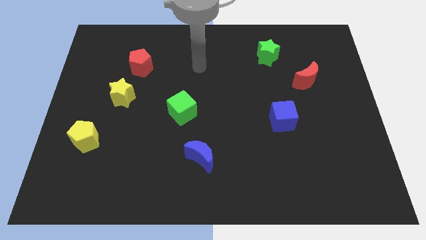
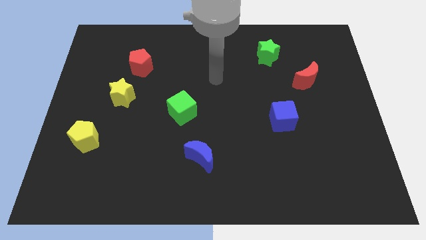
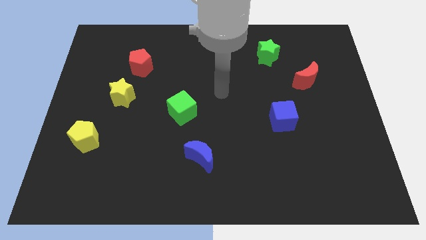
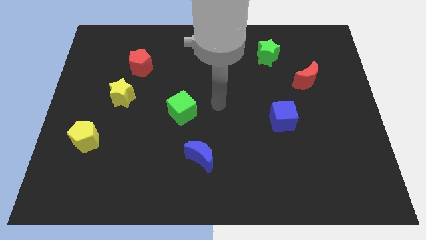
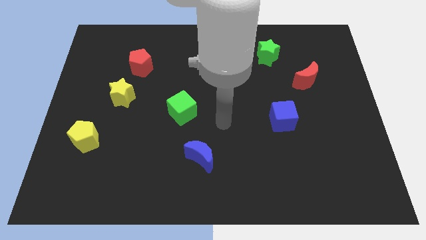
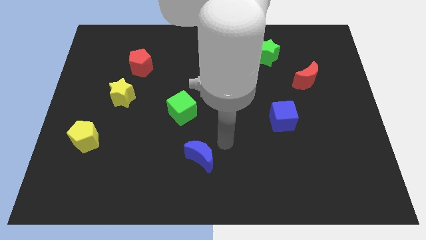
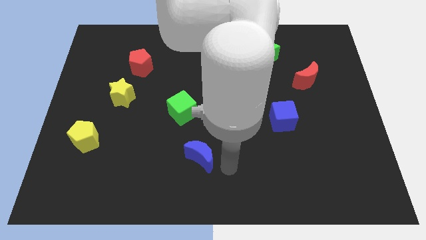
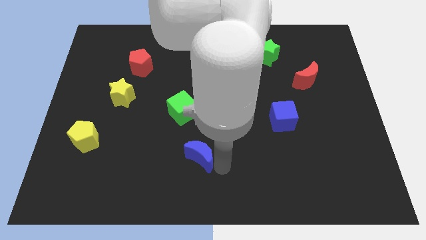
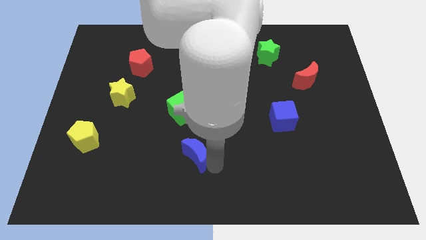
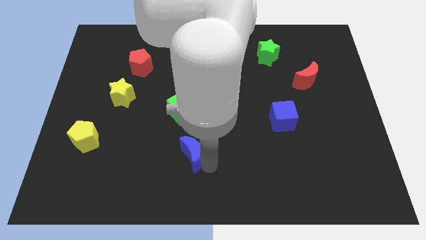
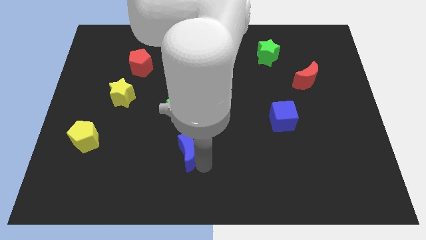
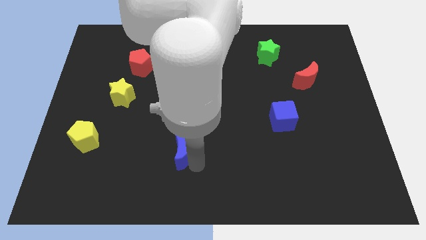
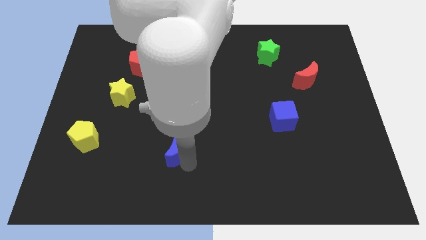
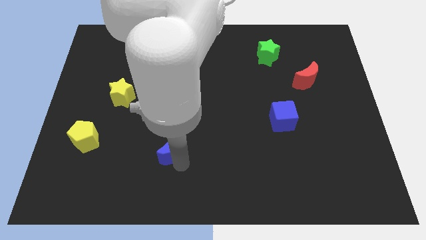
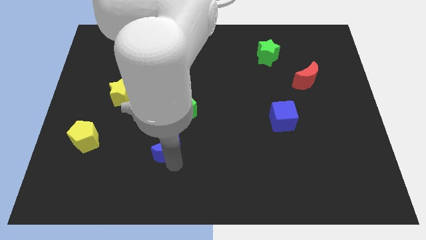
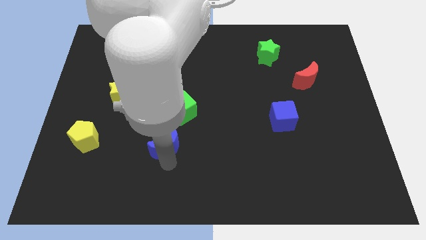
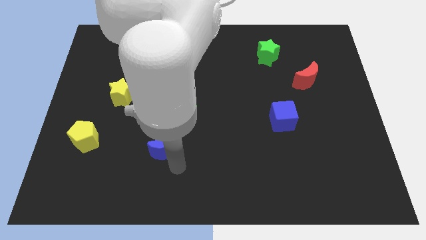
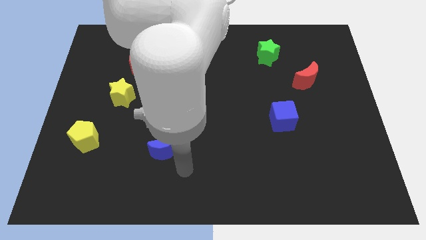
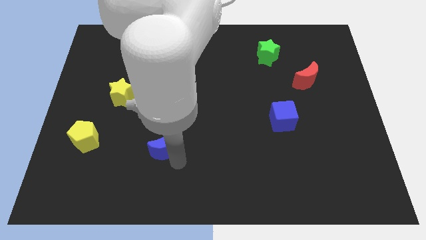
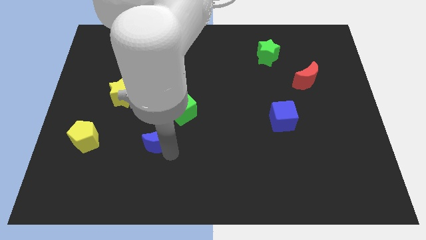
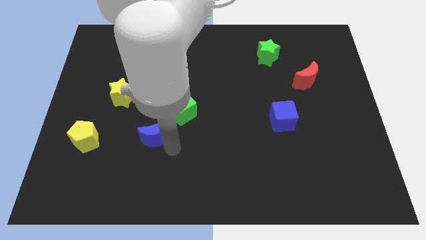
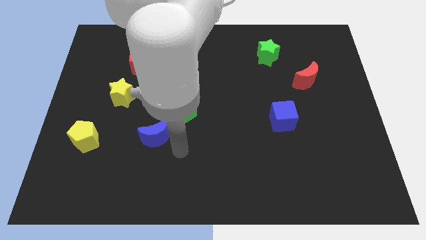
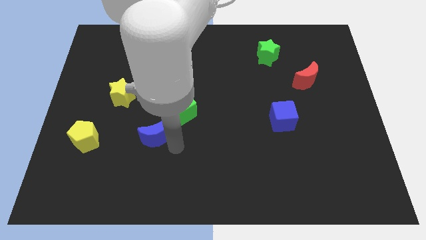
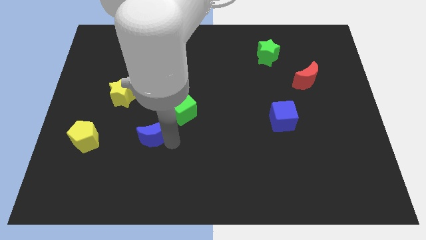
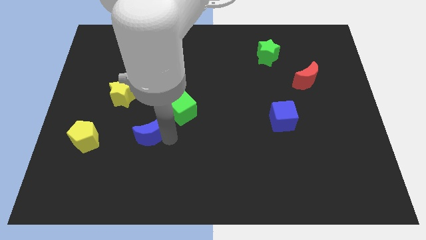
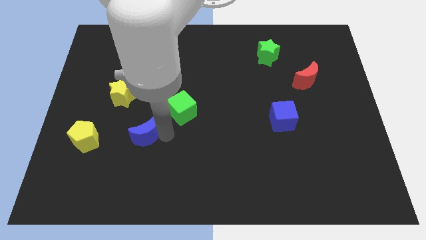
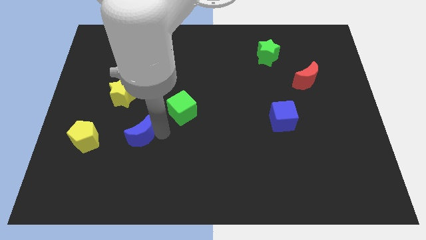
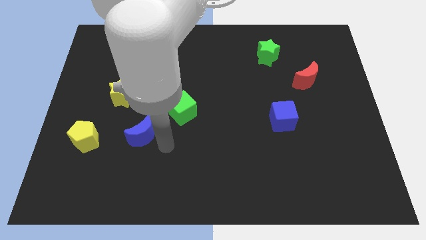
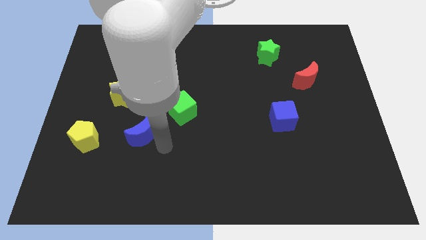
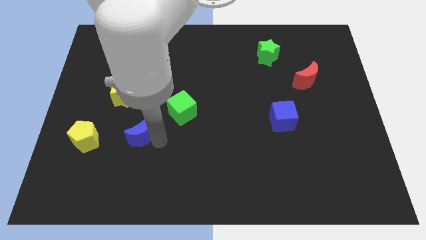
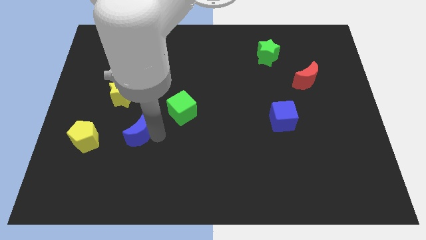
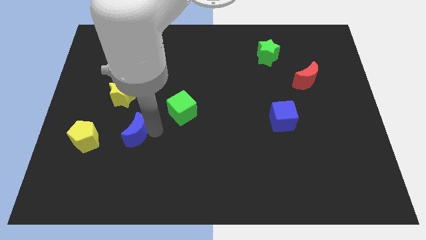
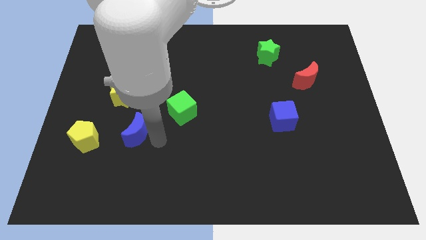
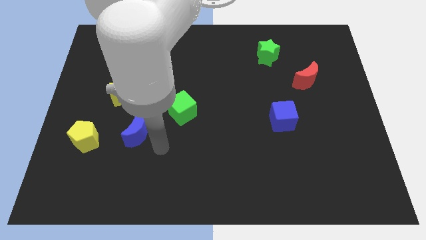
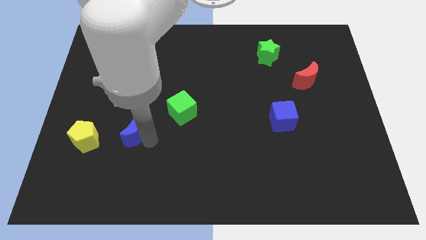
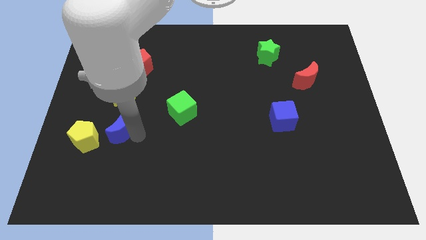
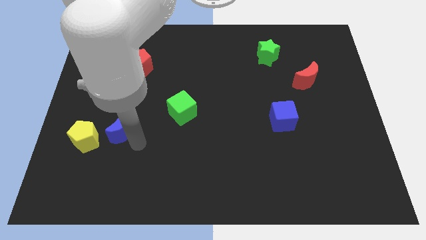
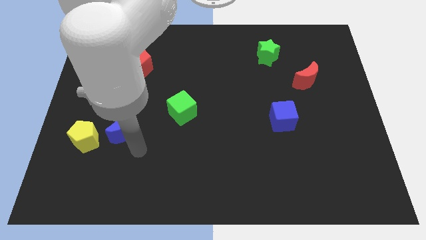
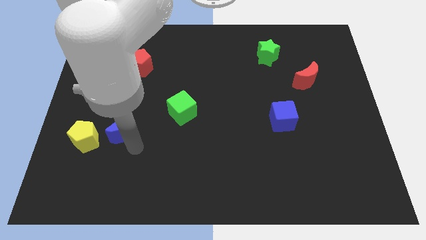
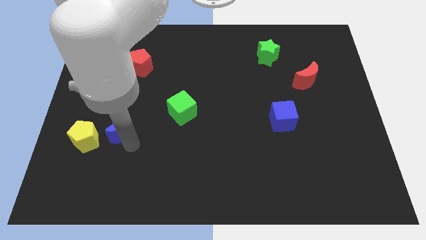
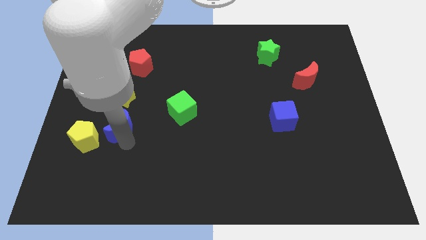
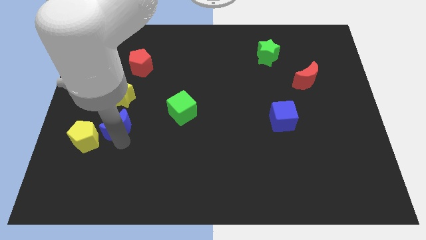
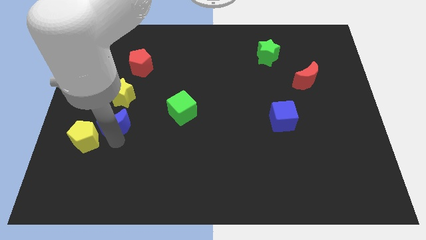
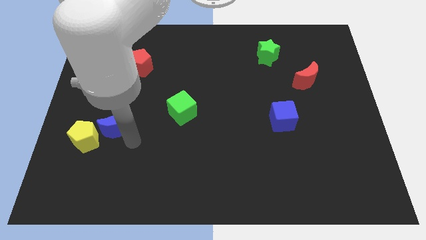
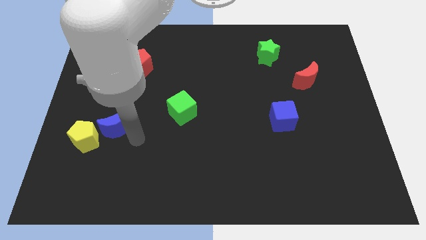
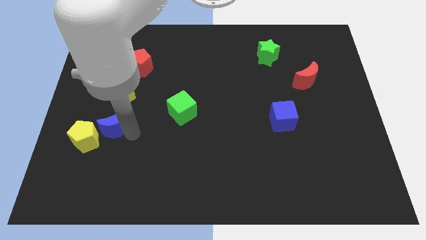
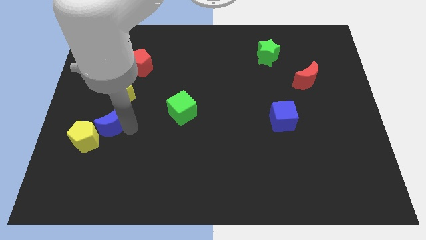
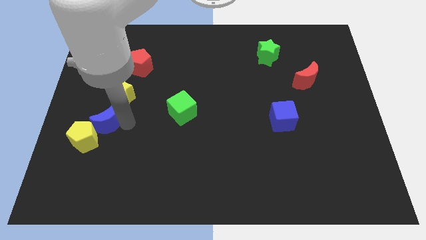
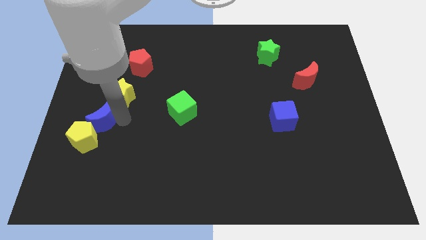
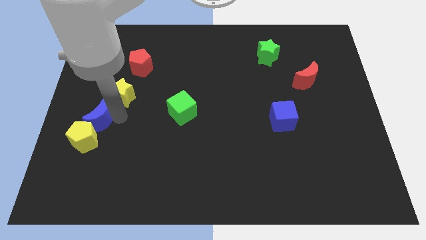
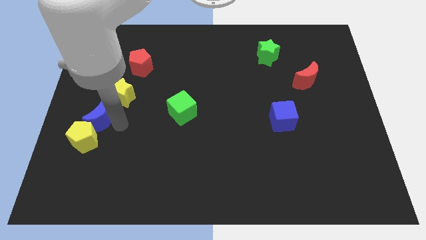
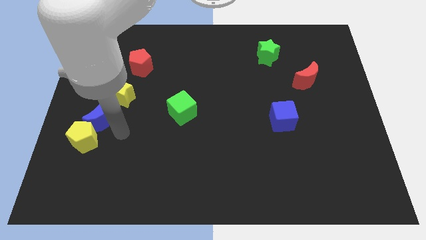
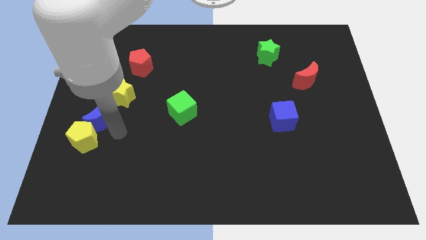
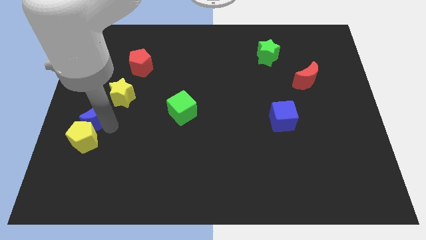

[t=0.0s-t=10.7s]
put the blue moon to the left side of the board

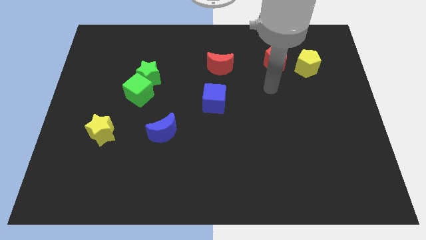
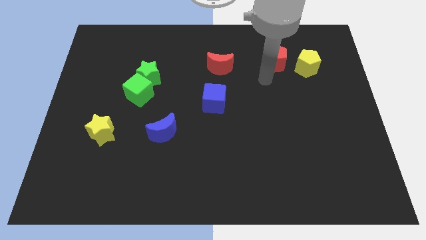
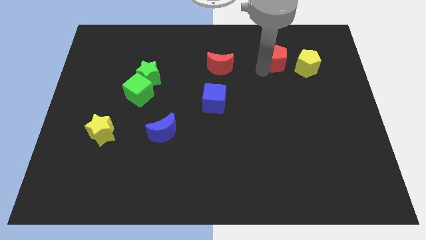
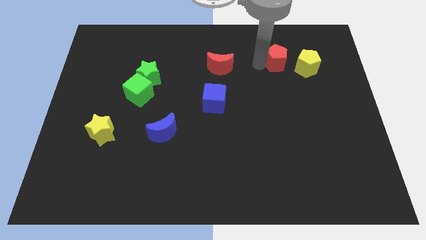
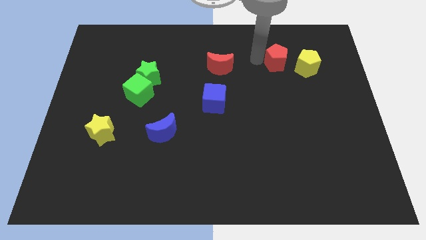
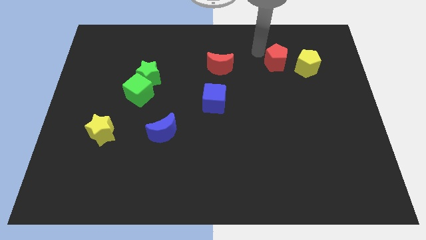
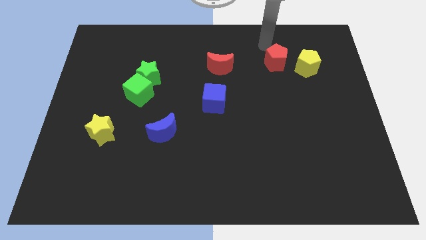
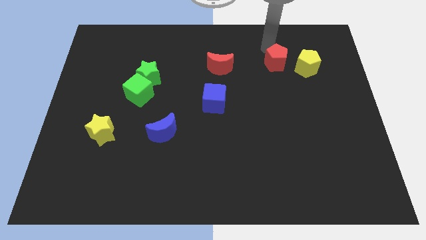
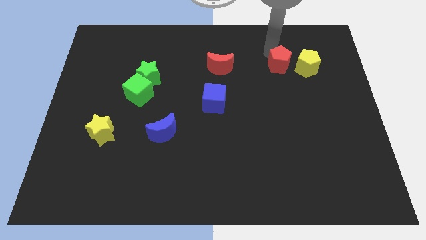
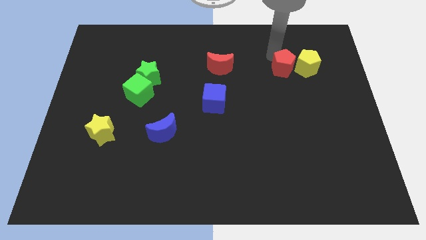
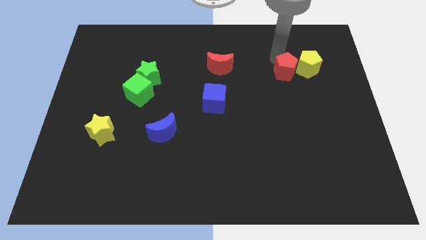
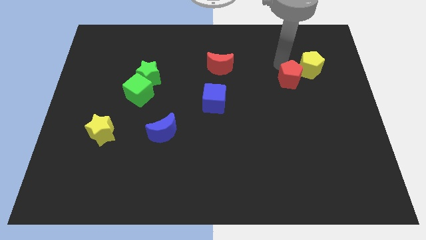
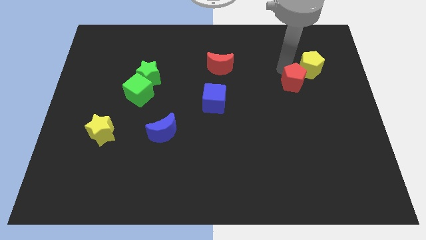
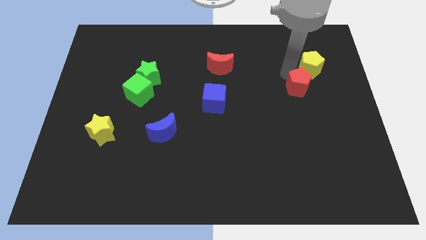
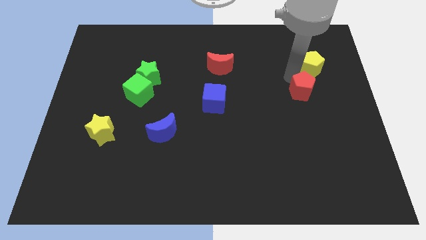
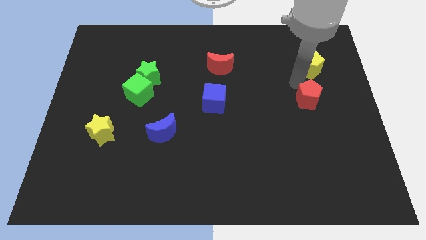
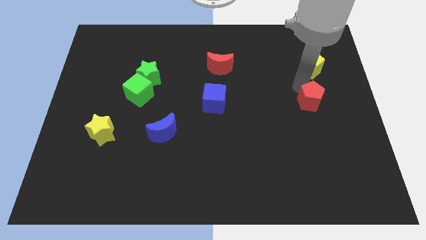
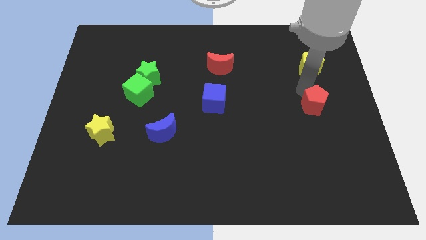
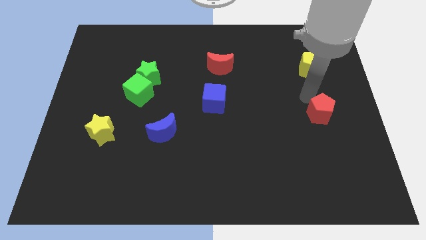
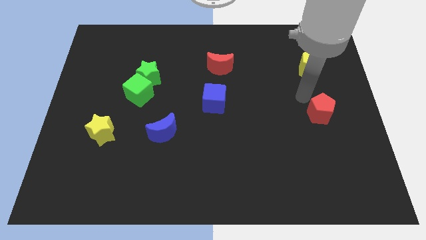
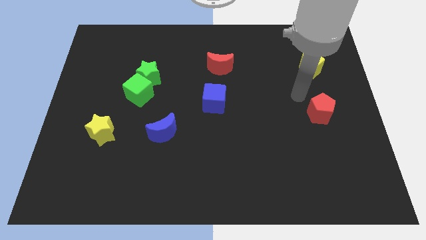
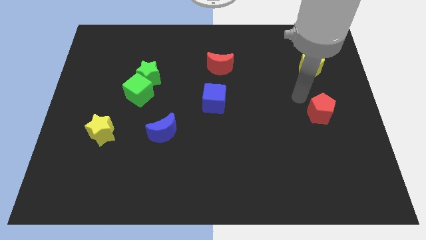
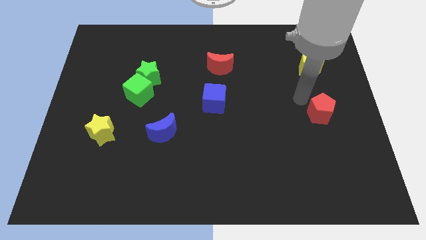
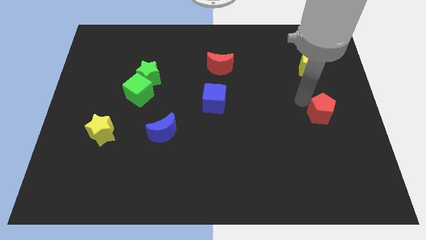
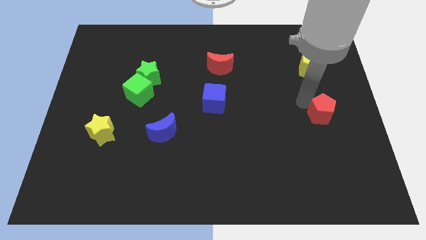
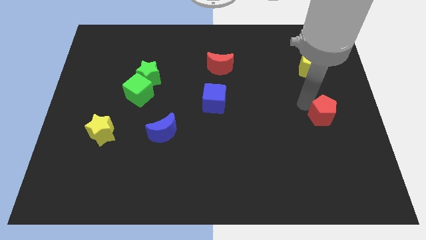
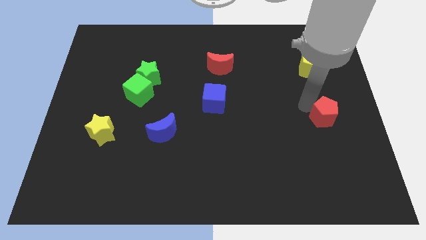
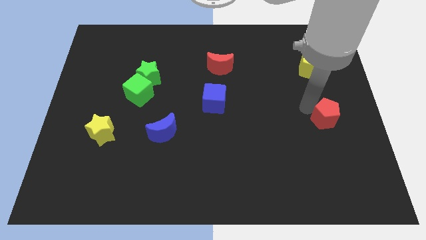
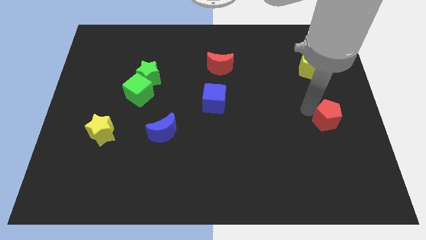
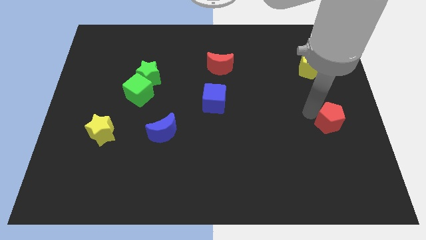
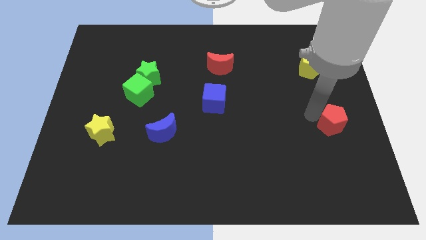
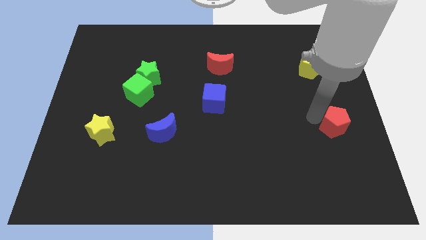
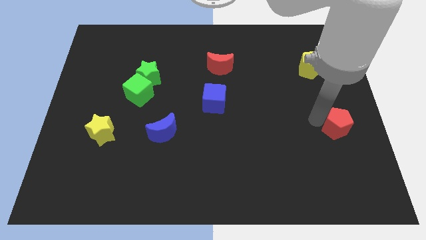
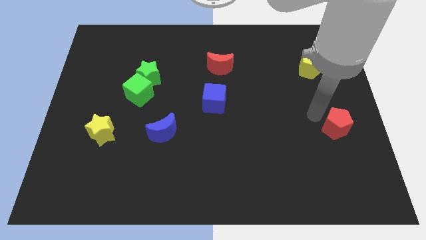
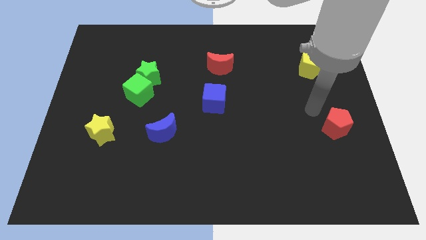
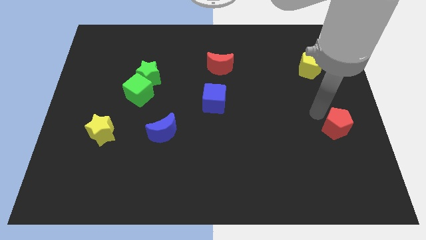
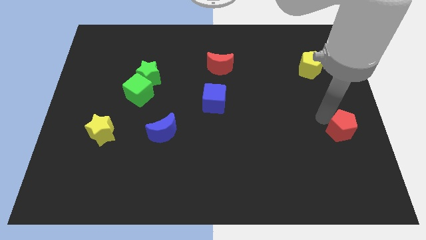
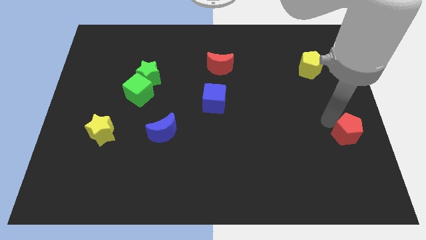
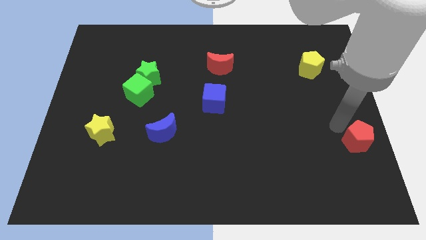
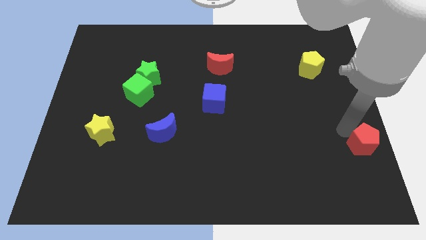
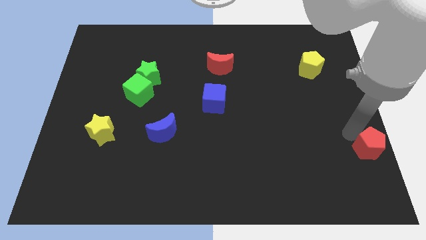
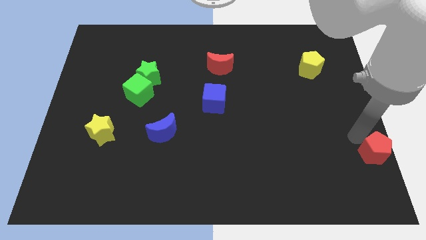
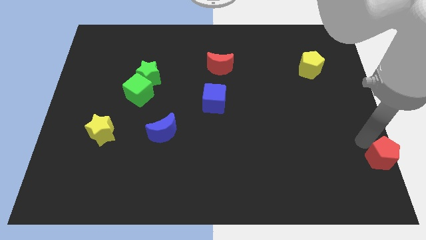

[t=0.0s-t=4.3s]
put the red pentagon to the bottom right
